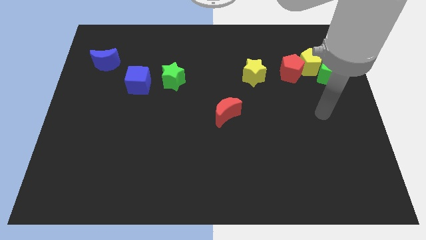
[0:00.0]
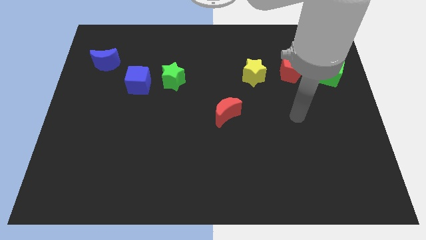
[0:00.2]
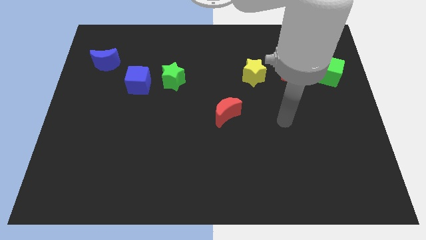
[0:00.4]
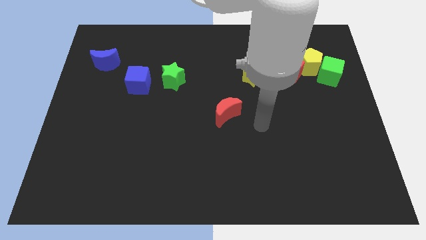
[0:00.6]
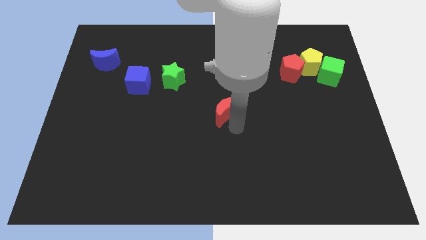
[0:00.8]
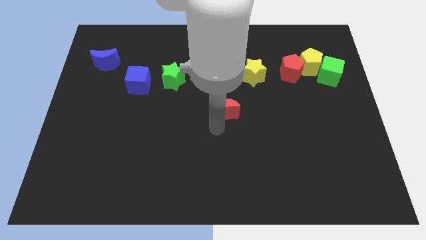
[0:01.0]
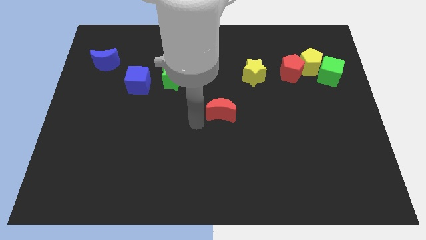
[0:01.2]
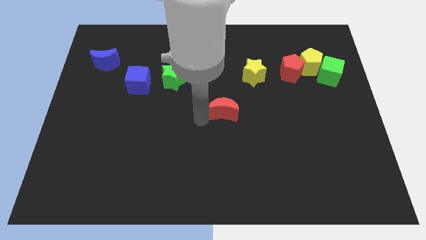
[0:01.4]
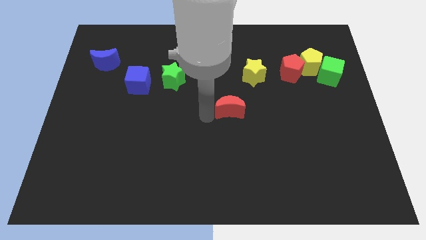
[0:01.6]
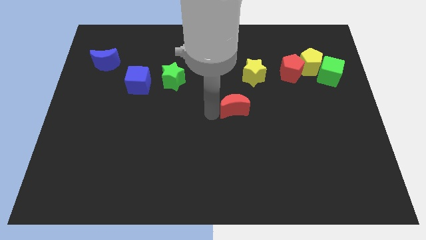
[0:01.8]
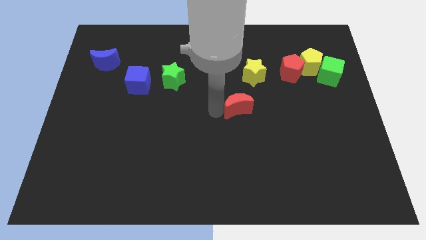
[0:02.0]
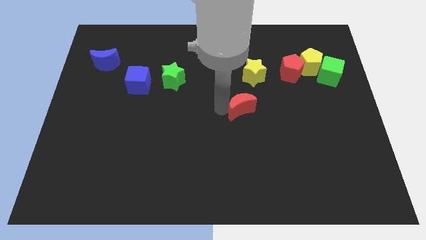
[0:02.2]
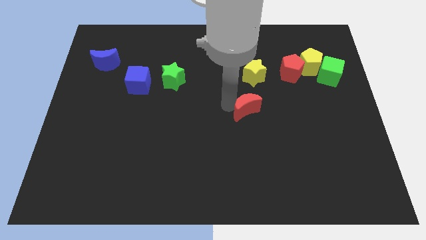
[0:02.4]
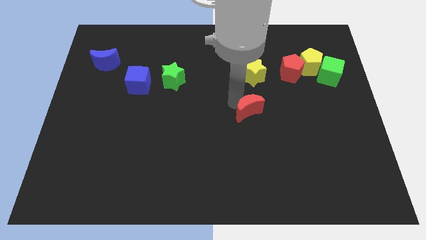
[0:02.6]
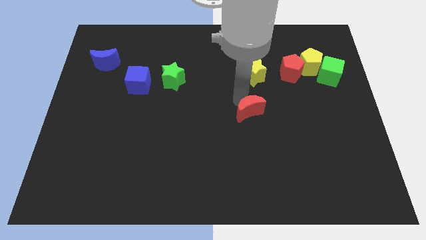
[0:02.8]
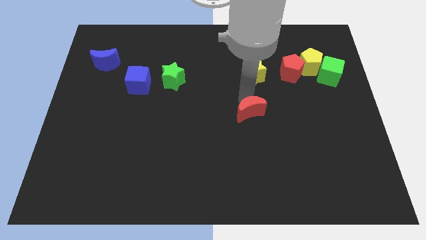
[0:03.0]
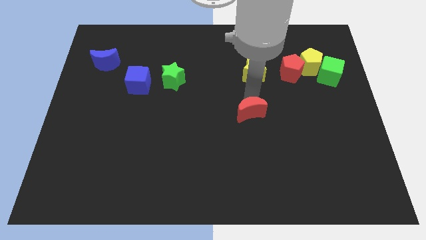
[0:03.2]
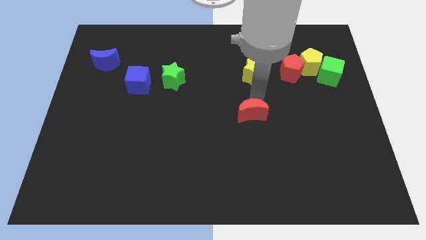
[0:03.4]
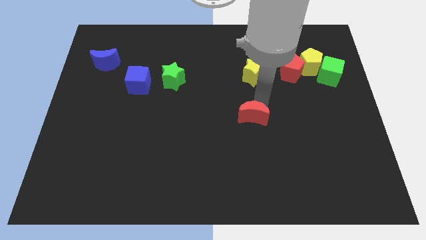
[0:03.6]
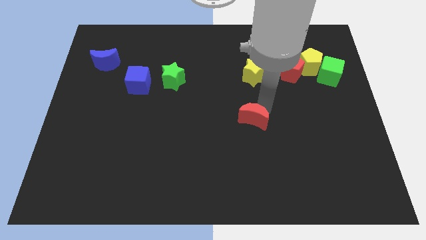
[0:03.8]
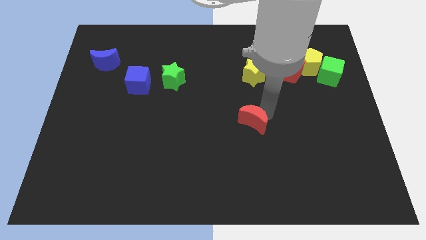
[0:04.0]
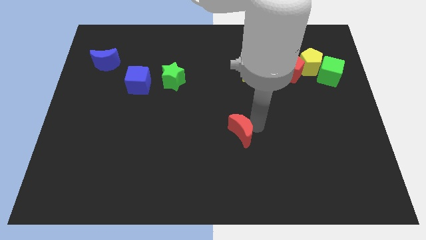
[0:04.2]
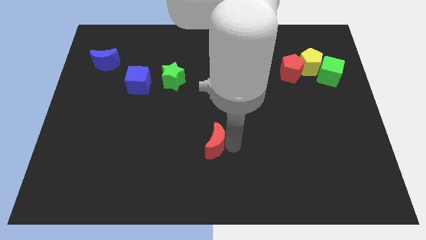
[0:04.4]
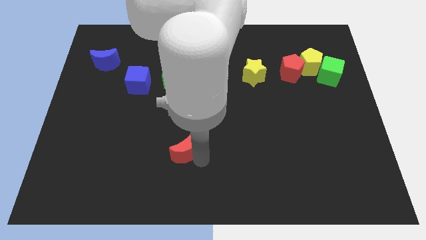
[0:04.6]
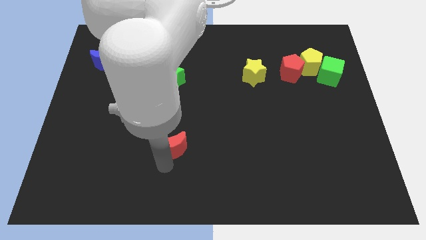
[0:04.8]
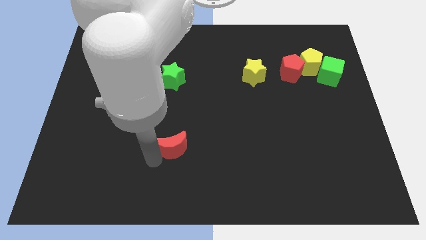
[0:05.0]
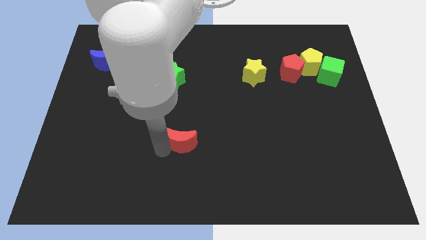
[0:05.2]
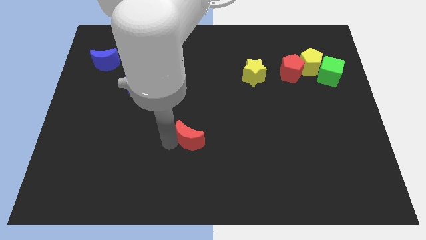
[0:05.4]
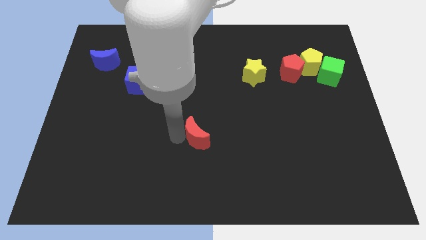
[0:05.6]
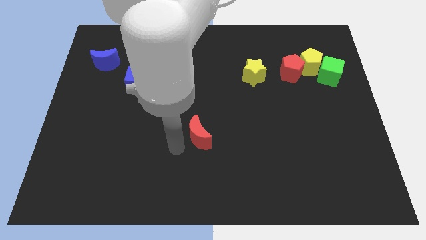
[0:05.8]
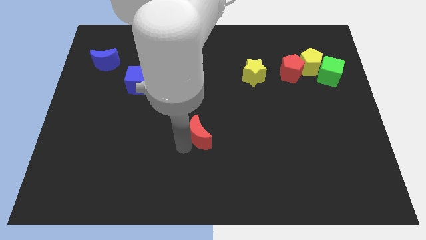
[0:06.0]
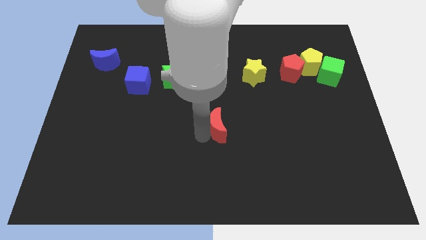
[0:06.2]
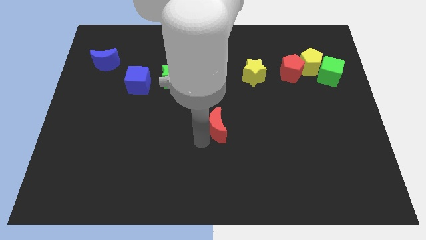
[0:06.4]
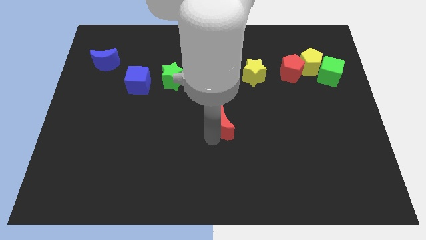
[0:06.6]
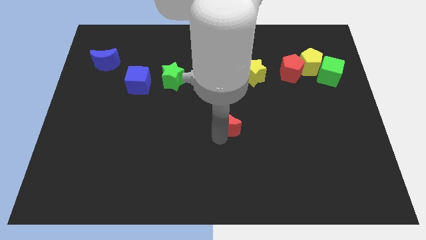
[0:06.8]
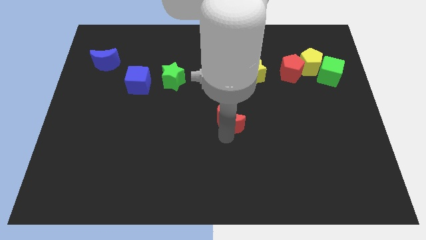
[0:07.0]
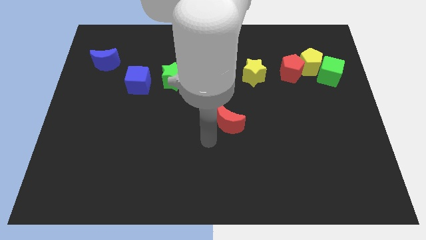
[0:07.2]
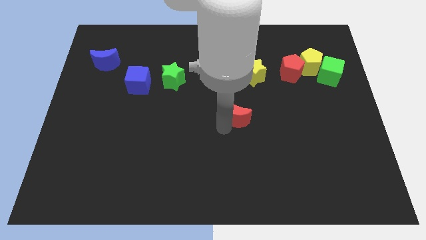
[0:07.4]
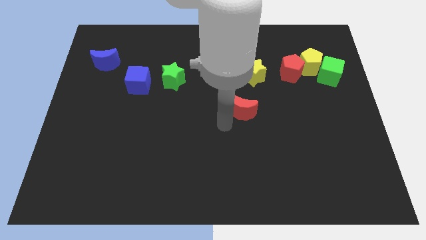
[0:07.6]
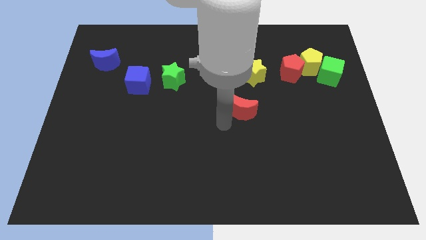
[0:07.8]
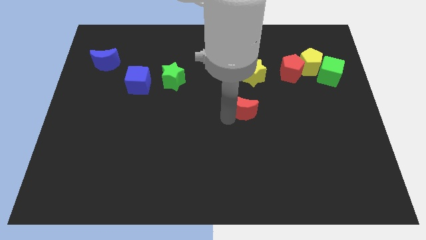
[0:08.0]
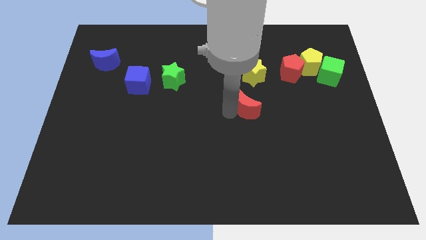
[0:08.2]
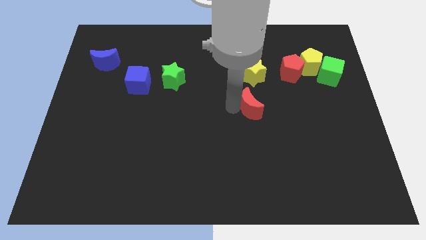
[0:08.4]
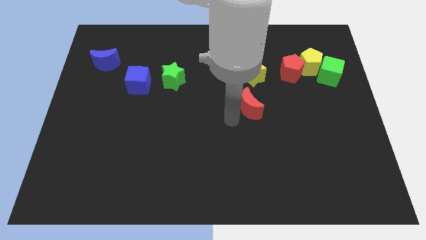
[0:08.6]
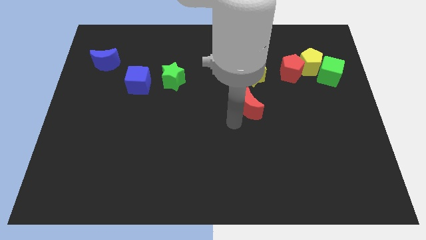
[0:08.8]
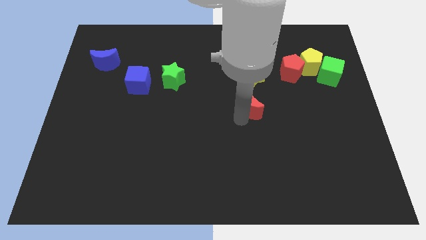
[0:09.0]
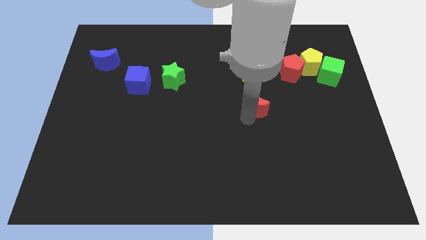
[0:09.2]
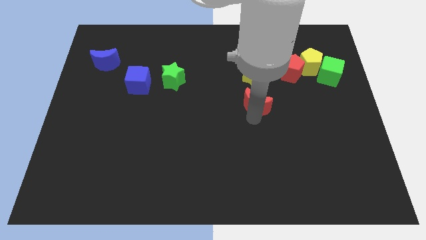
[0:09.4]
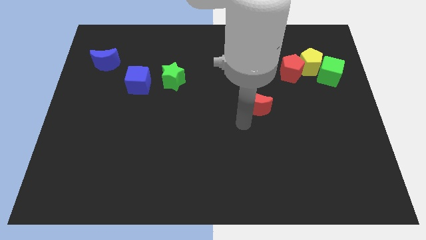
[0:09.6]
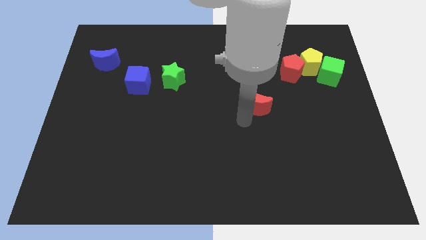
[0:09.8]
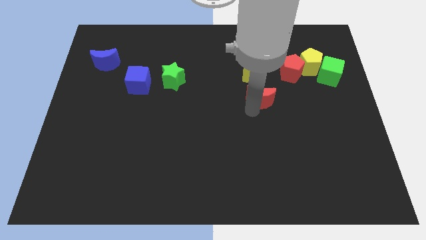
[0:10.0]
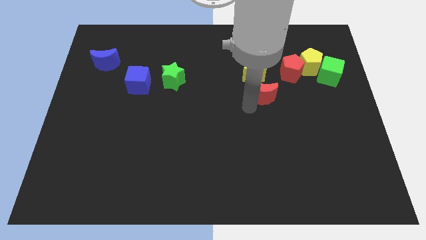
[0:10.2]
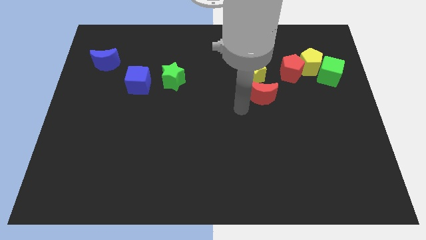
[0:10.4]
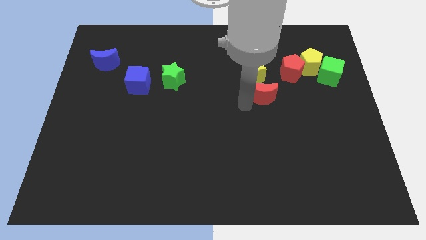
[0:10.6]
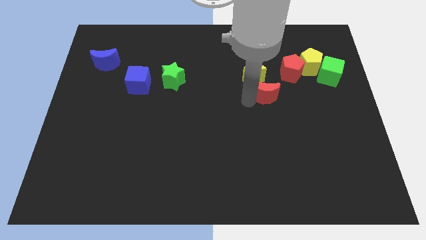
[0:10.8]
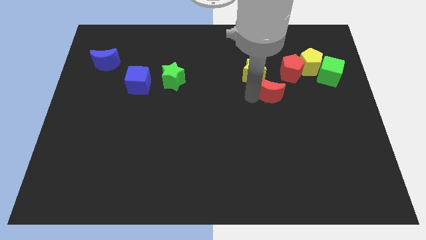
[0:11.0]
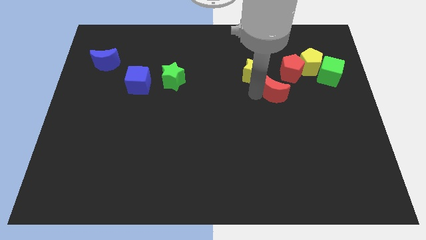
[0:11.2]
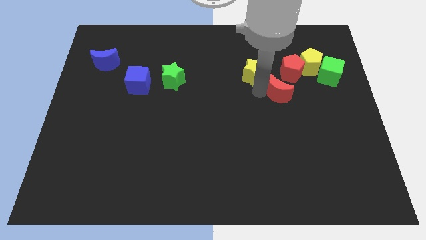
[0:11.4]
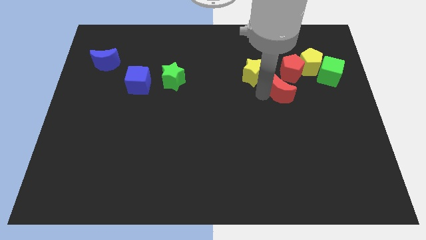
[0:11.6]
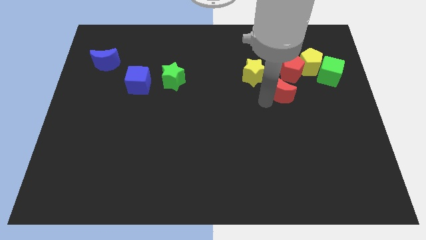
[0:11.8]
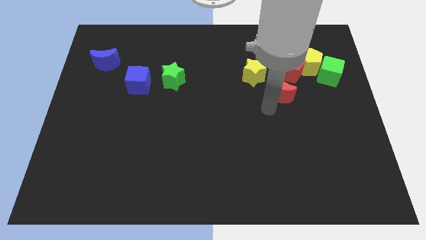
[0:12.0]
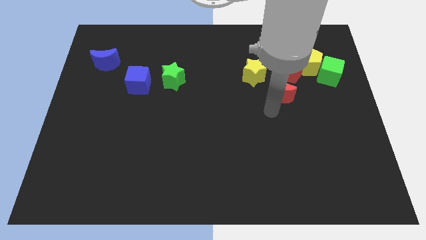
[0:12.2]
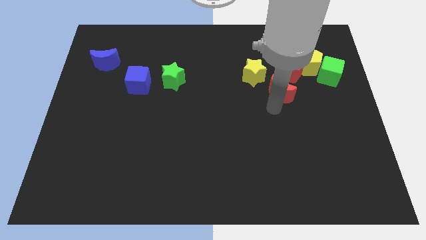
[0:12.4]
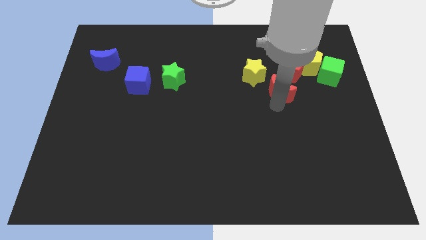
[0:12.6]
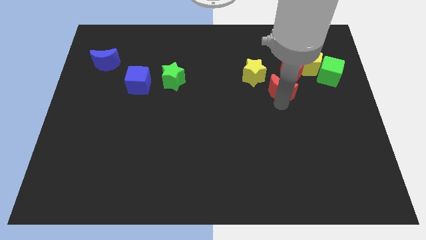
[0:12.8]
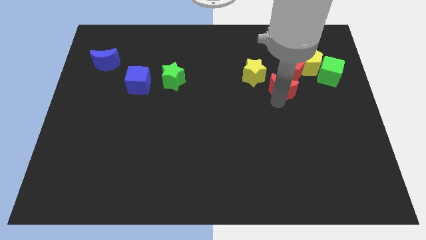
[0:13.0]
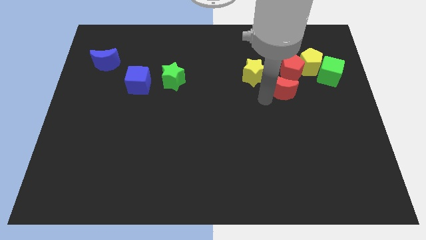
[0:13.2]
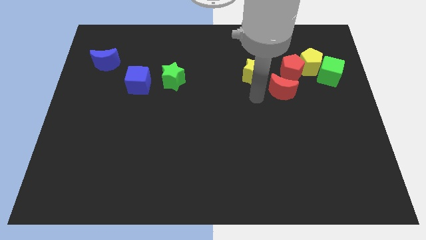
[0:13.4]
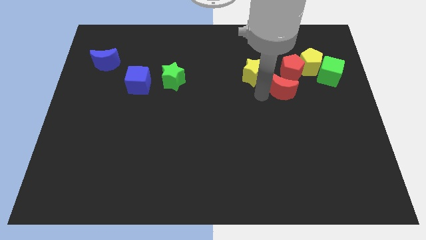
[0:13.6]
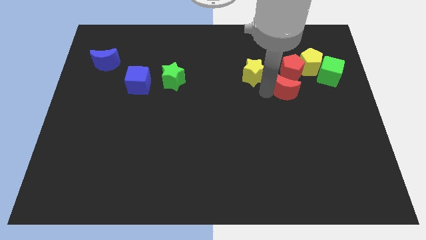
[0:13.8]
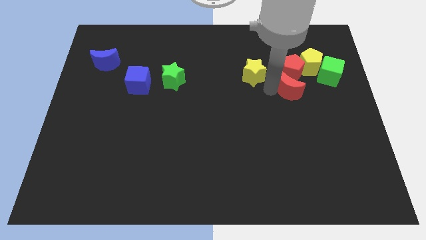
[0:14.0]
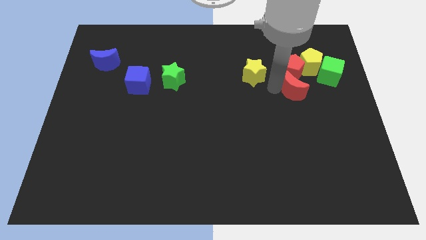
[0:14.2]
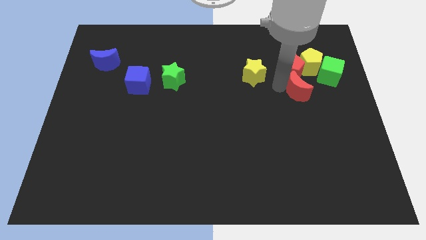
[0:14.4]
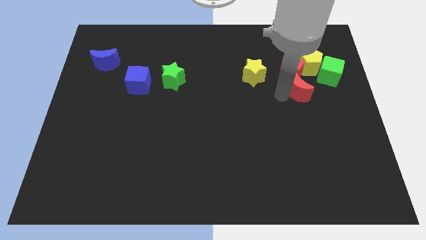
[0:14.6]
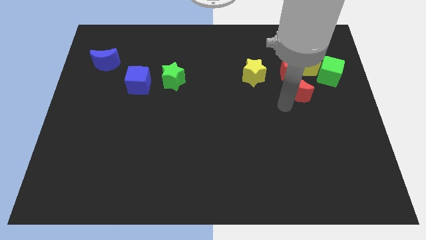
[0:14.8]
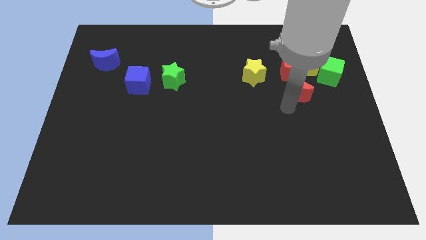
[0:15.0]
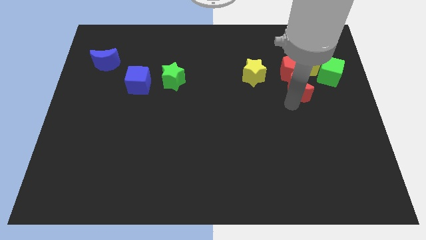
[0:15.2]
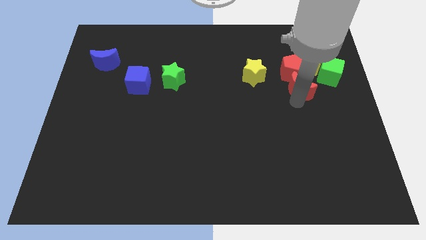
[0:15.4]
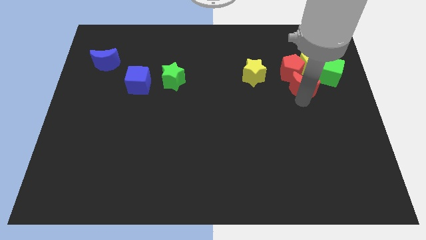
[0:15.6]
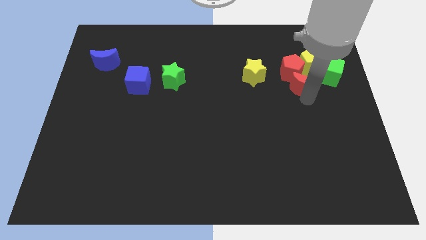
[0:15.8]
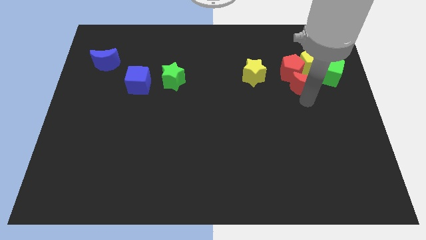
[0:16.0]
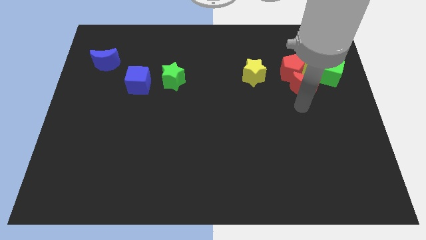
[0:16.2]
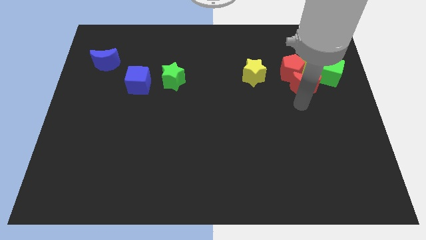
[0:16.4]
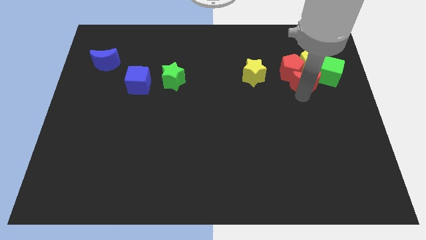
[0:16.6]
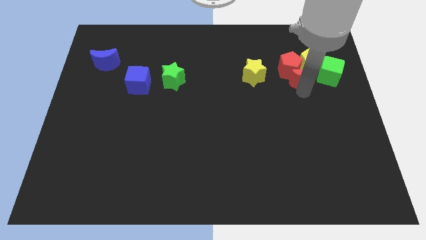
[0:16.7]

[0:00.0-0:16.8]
put the red moon close to the yellow pentagon
